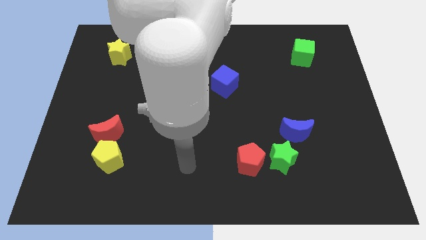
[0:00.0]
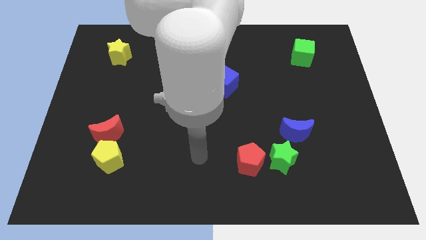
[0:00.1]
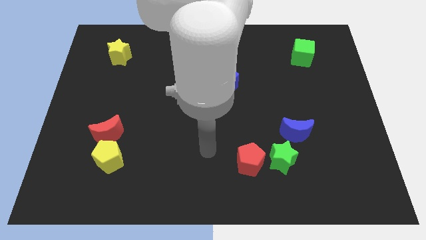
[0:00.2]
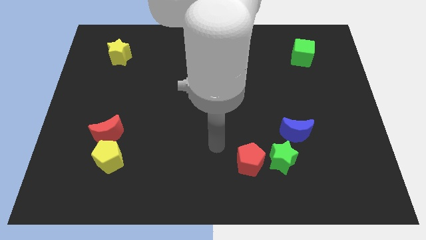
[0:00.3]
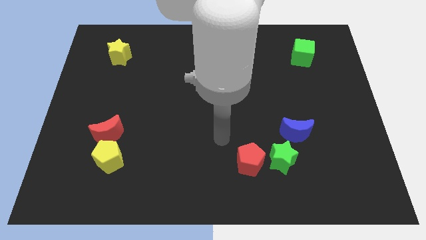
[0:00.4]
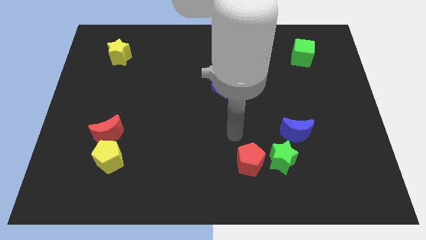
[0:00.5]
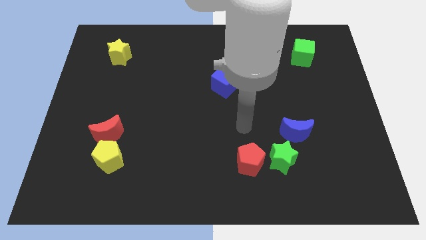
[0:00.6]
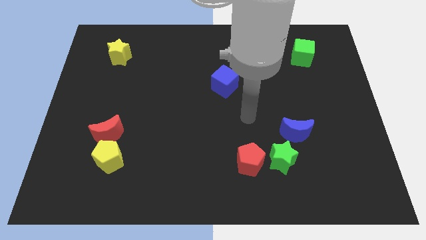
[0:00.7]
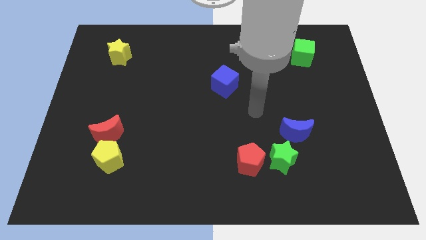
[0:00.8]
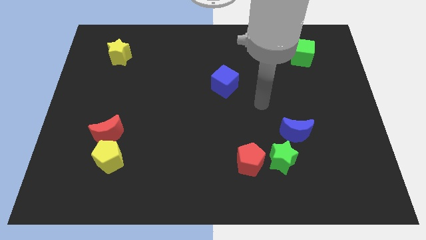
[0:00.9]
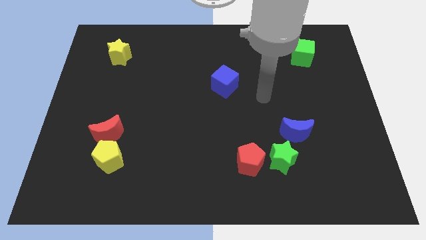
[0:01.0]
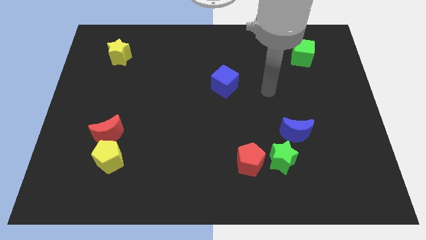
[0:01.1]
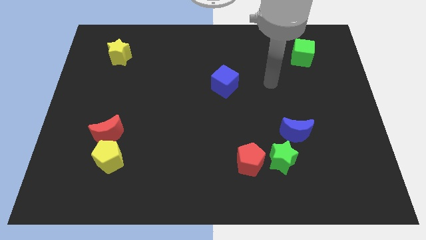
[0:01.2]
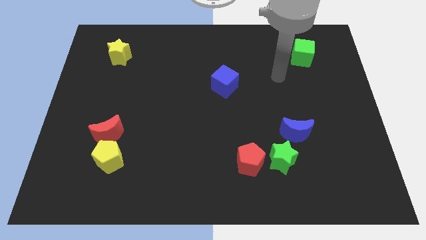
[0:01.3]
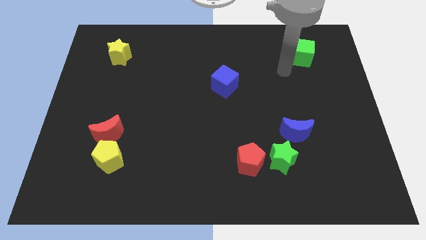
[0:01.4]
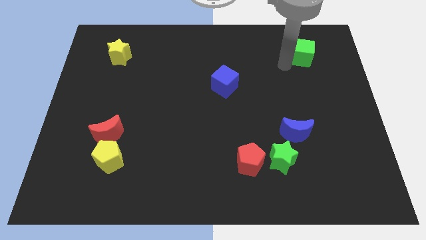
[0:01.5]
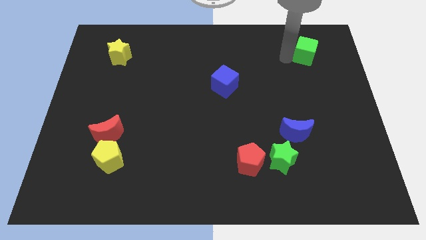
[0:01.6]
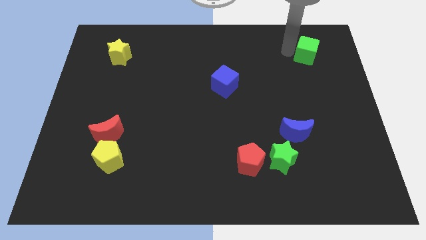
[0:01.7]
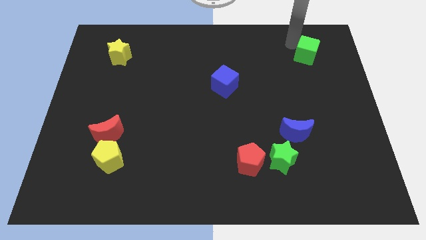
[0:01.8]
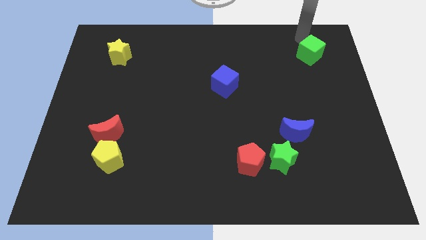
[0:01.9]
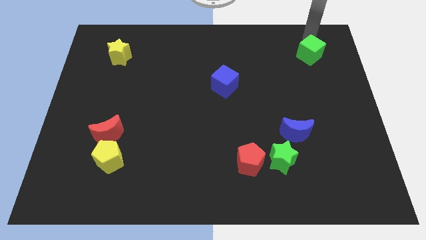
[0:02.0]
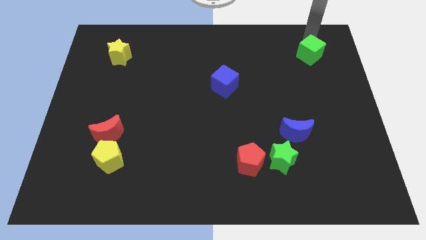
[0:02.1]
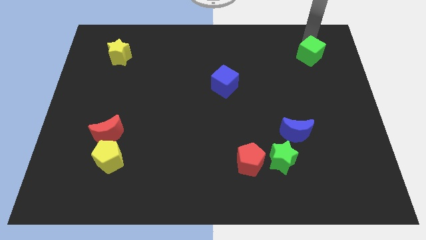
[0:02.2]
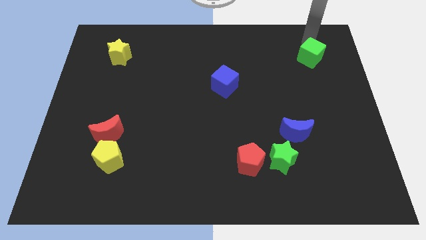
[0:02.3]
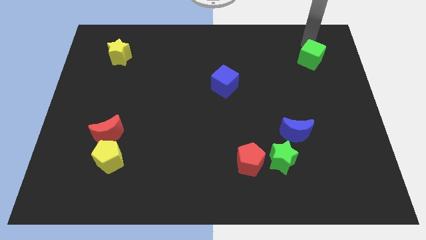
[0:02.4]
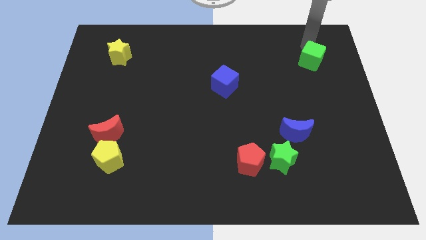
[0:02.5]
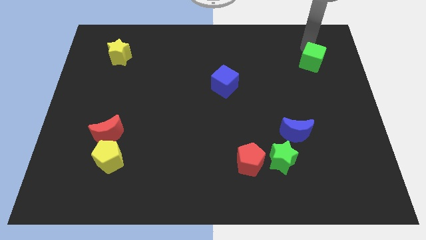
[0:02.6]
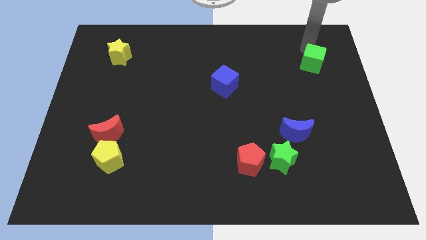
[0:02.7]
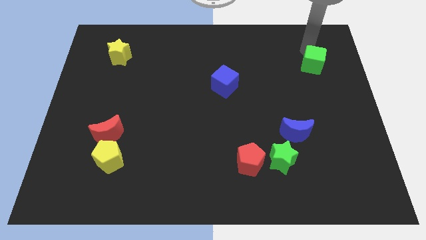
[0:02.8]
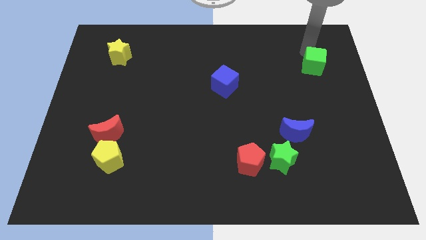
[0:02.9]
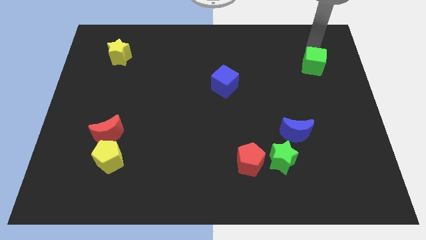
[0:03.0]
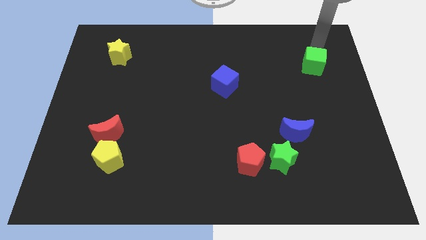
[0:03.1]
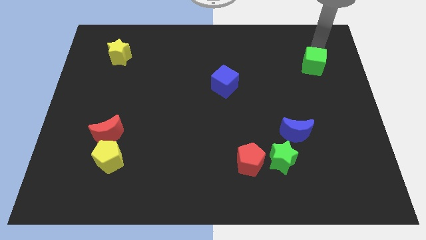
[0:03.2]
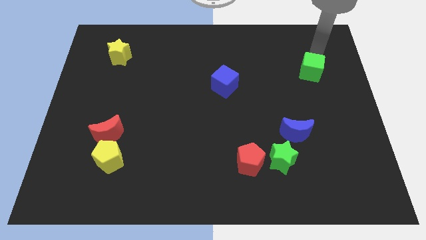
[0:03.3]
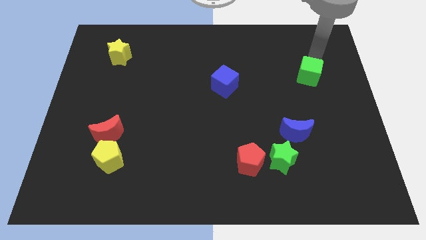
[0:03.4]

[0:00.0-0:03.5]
move the green cube downwards a bit

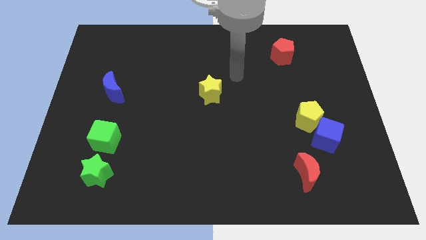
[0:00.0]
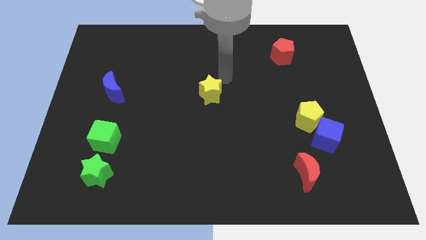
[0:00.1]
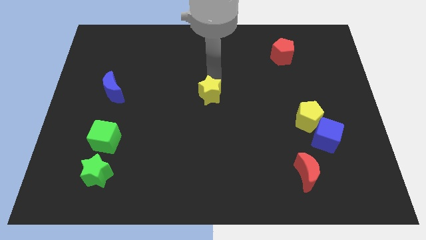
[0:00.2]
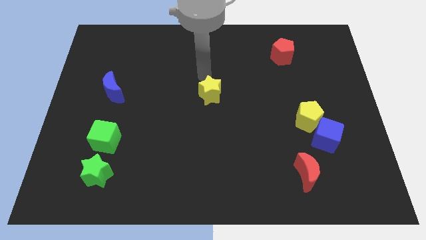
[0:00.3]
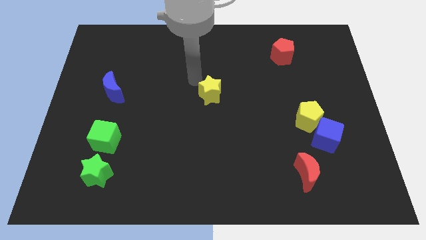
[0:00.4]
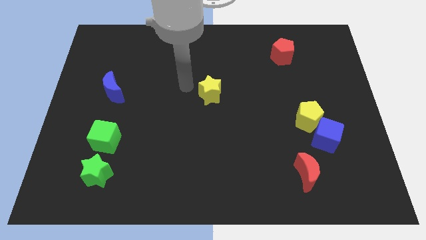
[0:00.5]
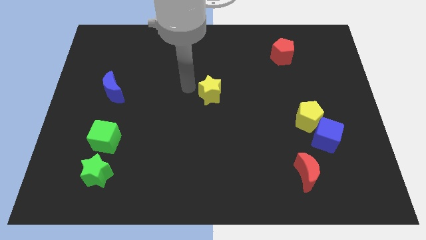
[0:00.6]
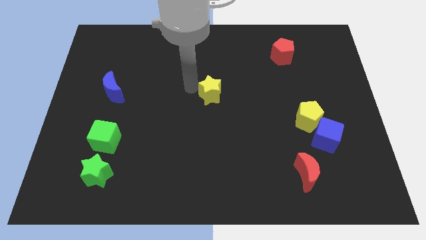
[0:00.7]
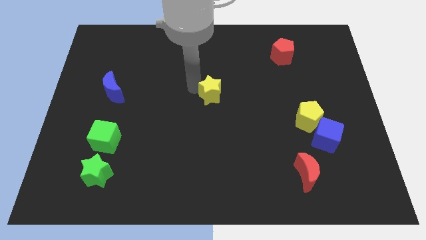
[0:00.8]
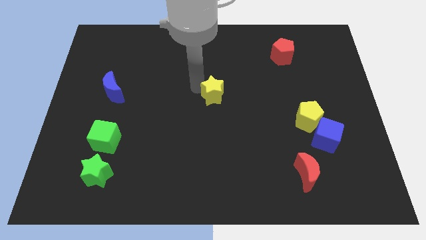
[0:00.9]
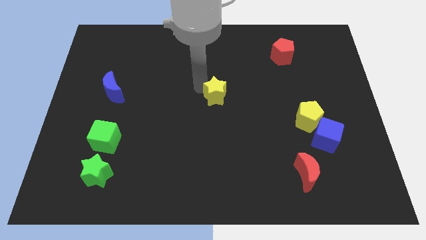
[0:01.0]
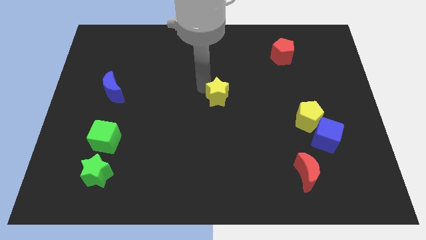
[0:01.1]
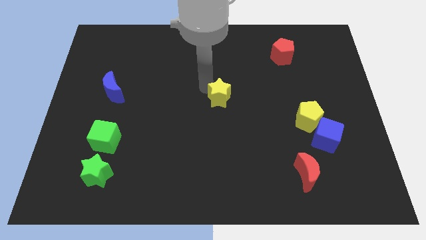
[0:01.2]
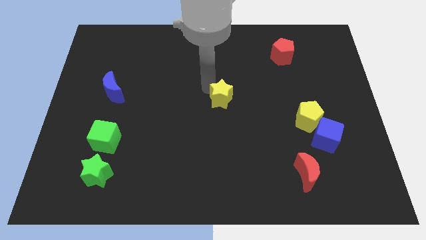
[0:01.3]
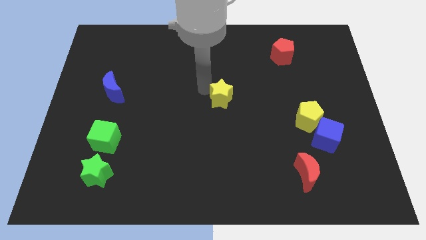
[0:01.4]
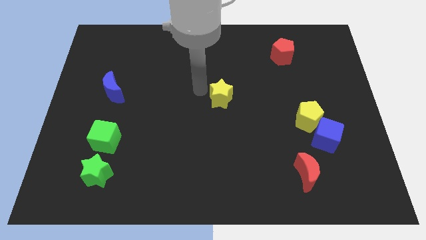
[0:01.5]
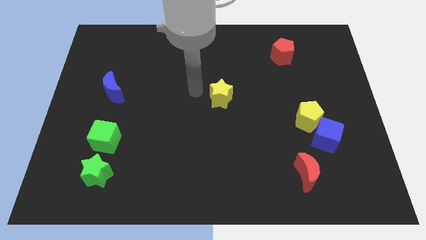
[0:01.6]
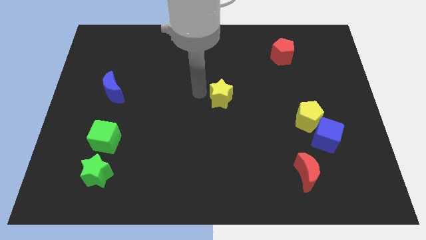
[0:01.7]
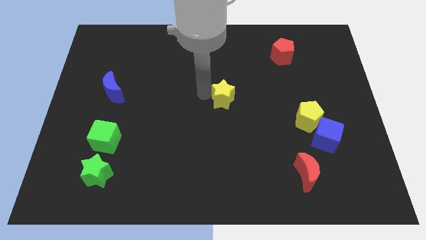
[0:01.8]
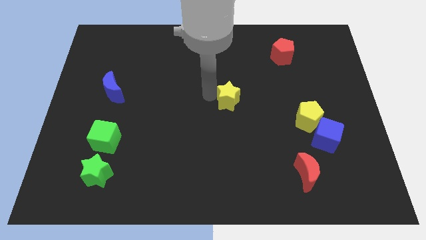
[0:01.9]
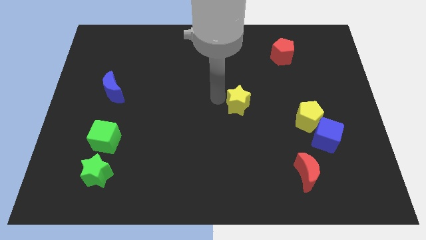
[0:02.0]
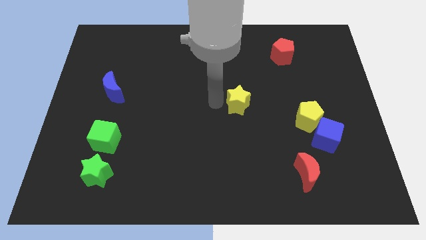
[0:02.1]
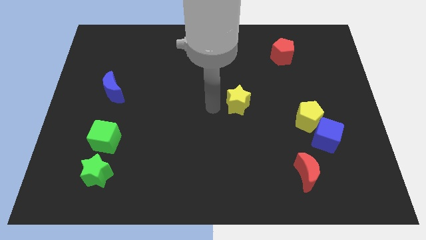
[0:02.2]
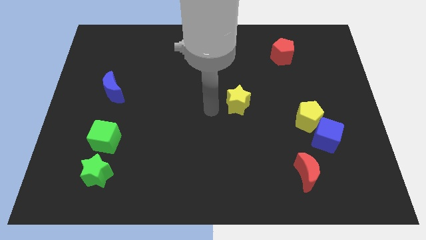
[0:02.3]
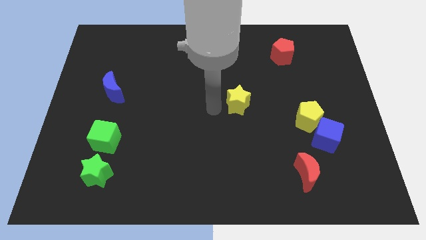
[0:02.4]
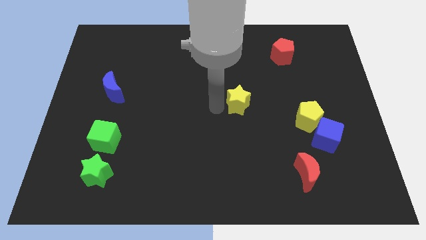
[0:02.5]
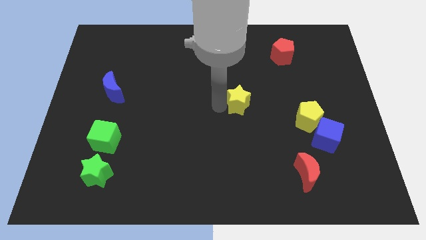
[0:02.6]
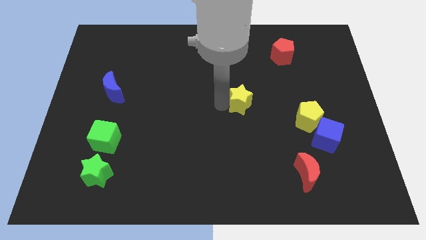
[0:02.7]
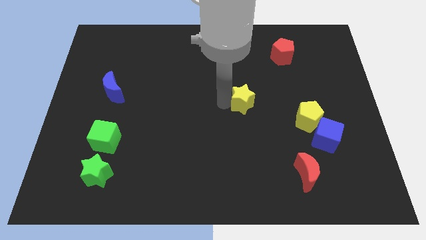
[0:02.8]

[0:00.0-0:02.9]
slightly push the yellow star right

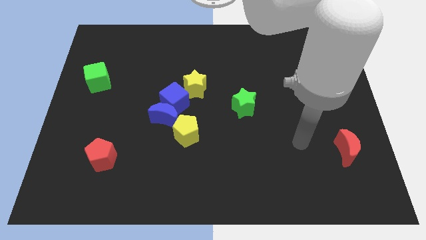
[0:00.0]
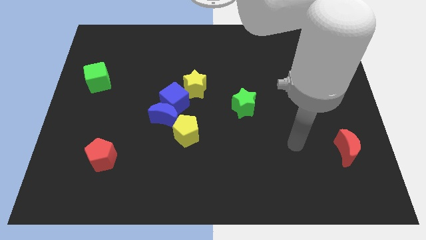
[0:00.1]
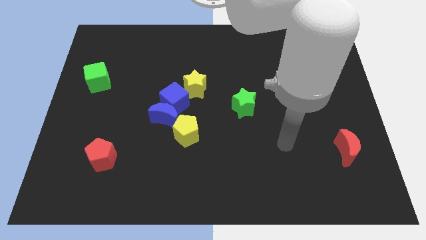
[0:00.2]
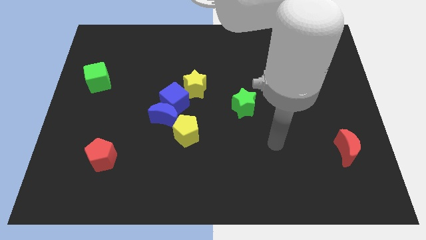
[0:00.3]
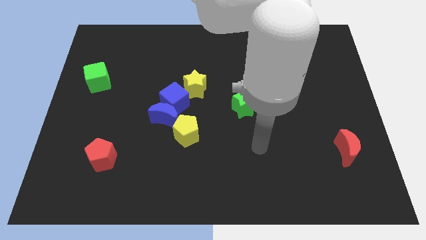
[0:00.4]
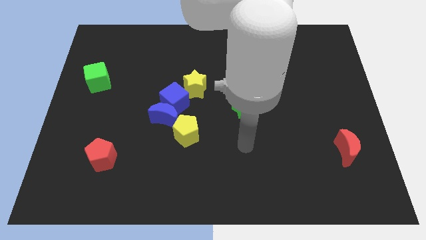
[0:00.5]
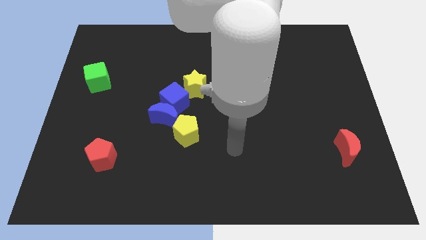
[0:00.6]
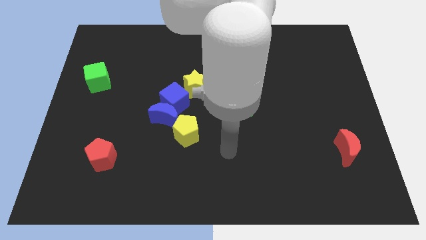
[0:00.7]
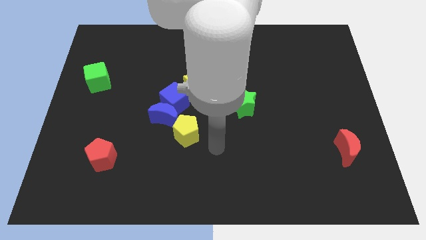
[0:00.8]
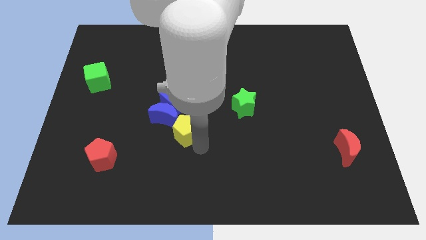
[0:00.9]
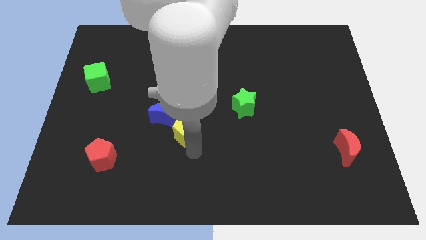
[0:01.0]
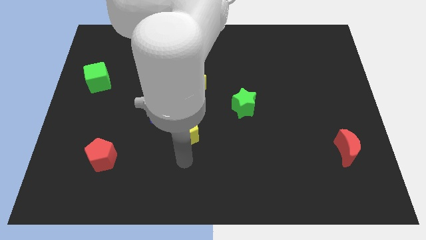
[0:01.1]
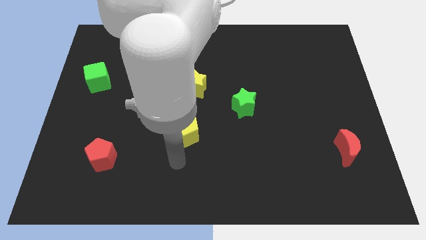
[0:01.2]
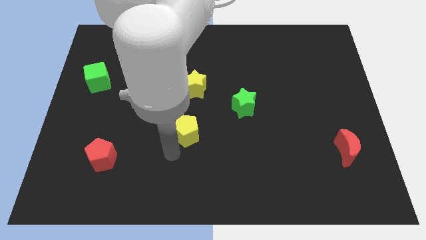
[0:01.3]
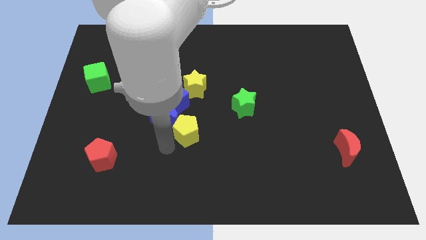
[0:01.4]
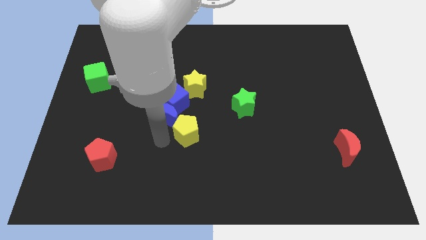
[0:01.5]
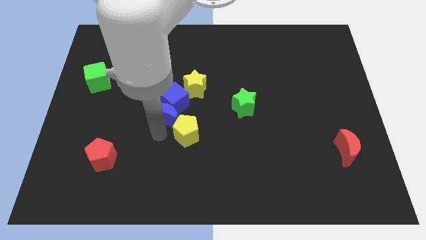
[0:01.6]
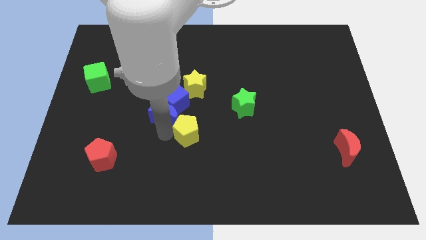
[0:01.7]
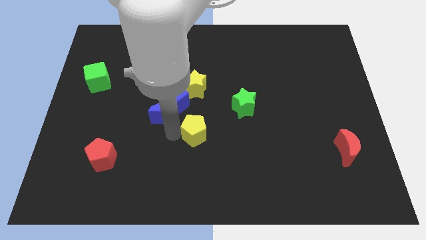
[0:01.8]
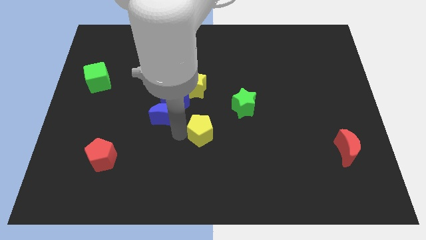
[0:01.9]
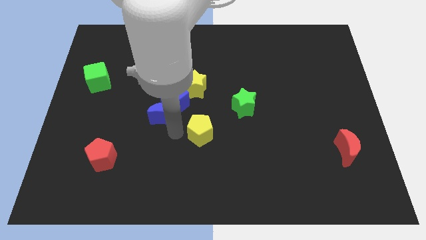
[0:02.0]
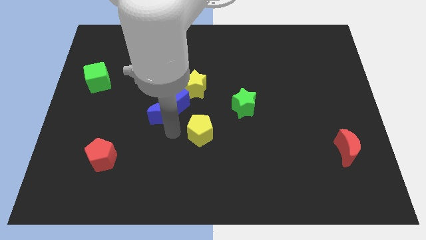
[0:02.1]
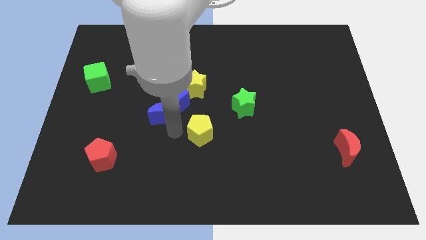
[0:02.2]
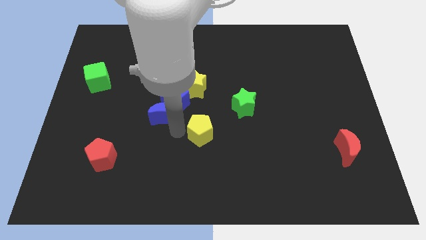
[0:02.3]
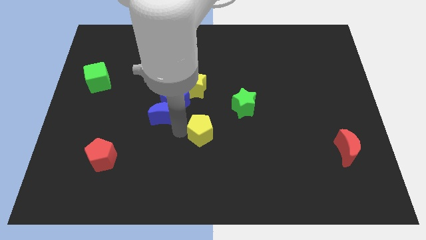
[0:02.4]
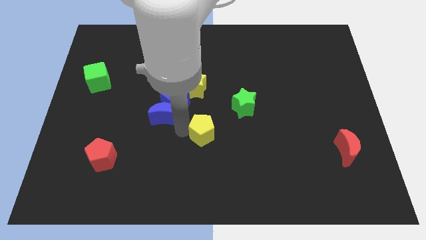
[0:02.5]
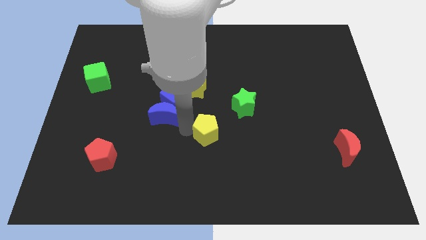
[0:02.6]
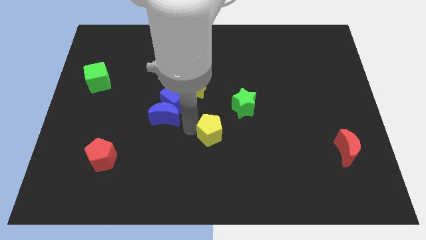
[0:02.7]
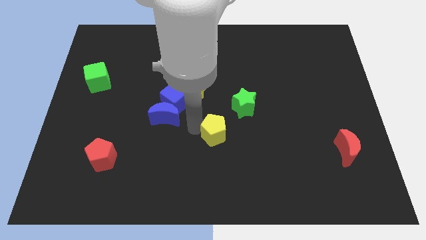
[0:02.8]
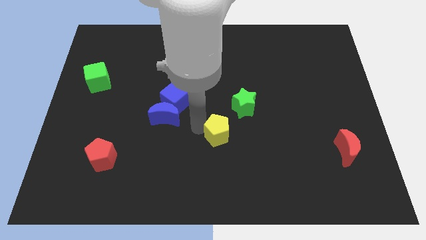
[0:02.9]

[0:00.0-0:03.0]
push the yellow pentagon to the right slightly
